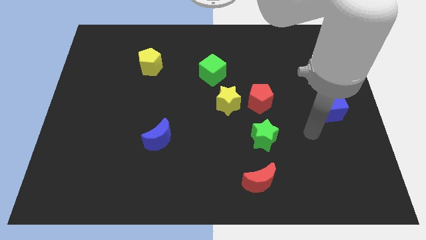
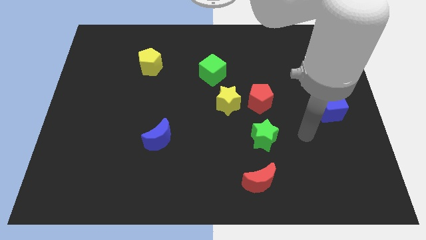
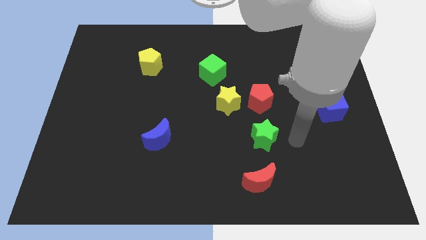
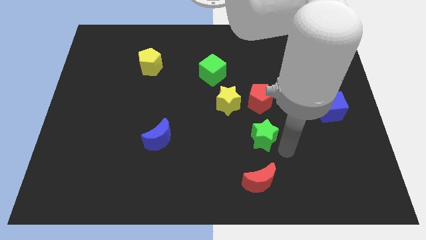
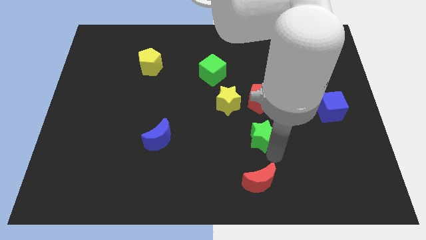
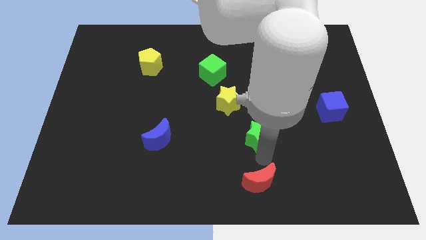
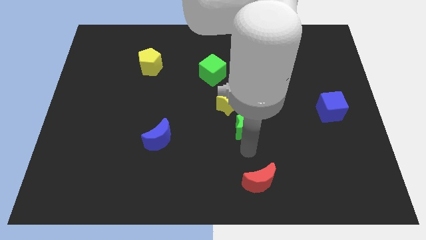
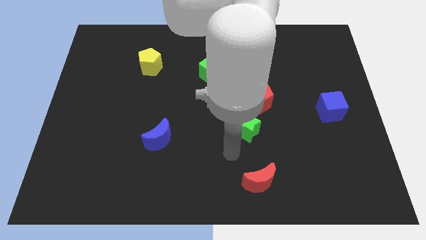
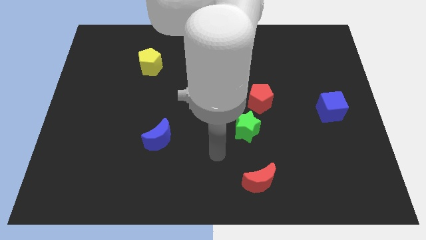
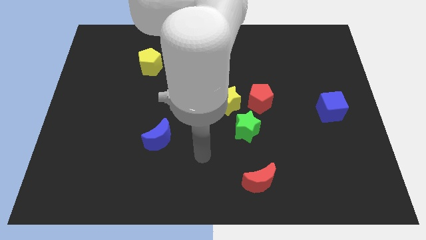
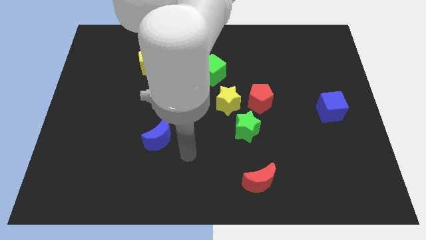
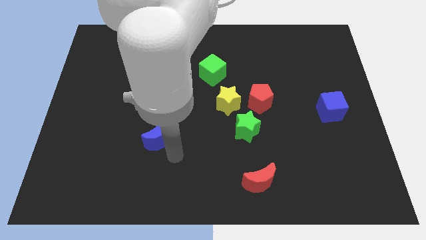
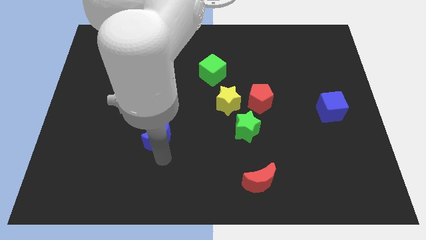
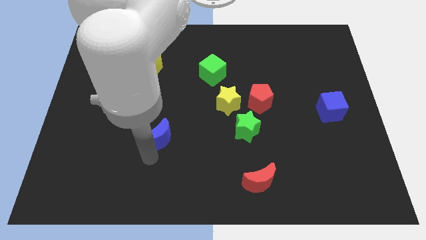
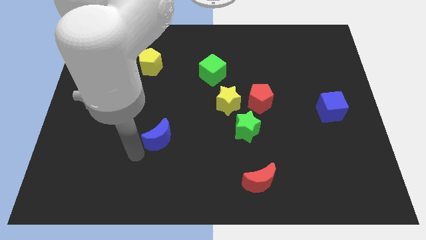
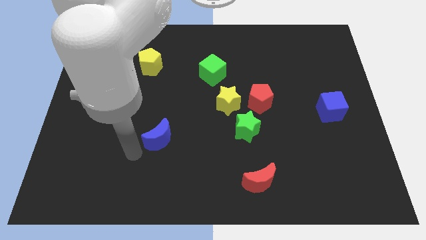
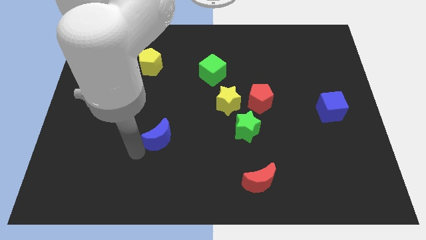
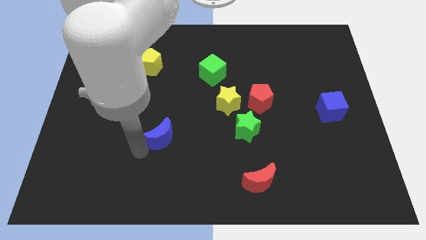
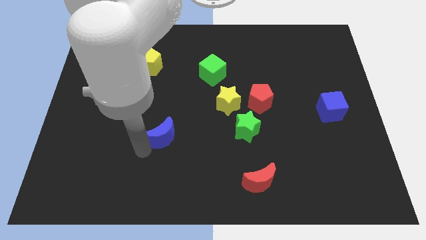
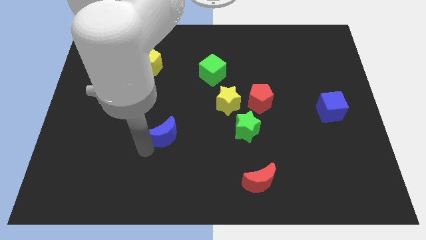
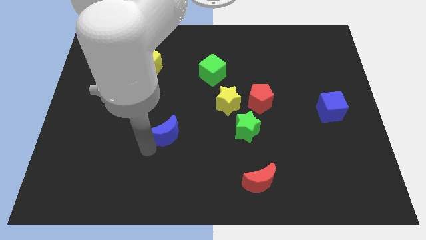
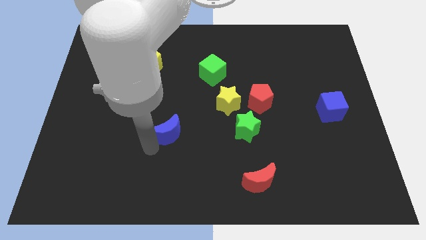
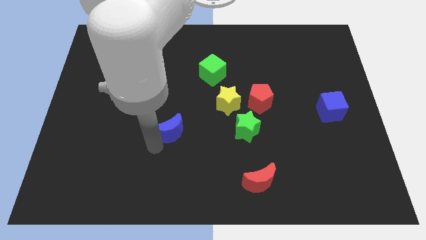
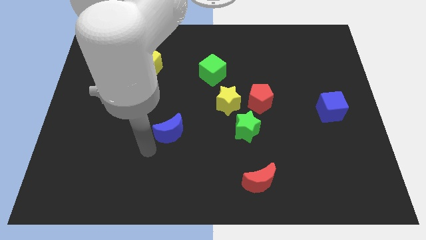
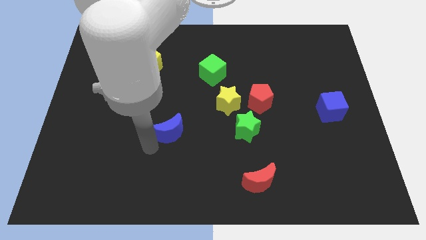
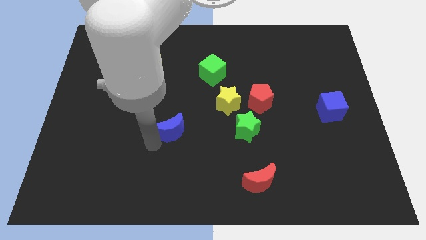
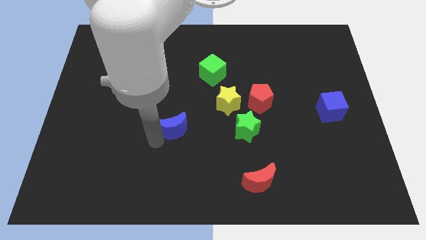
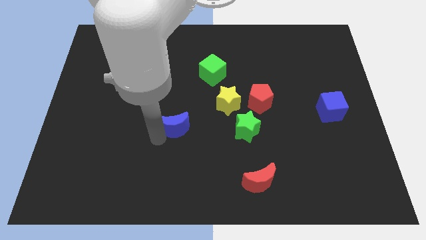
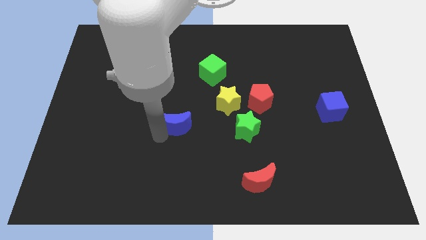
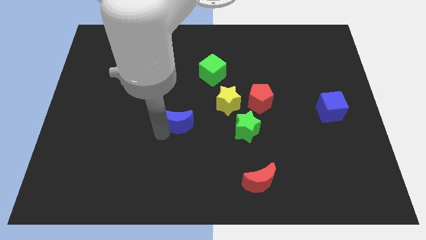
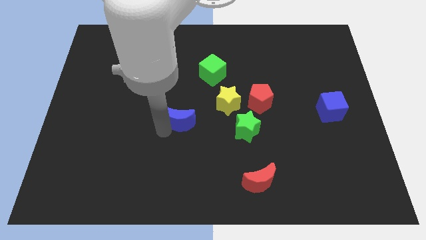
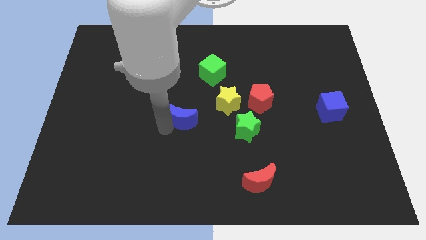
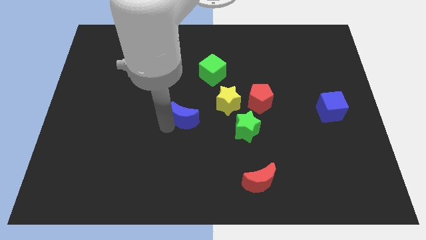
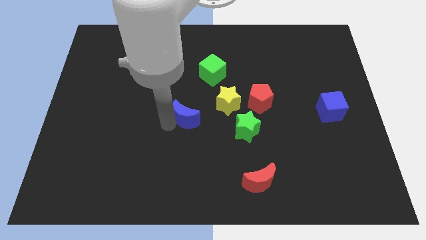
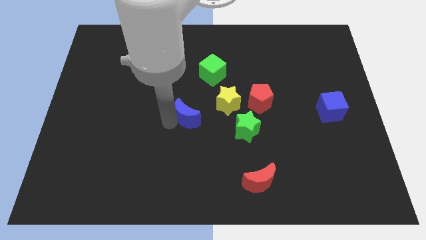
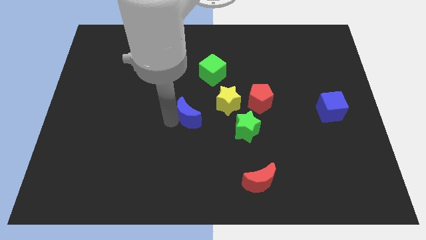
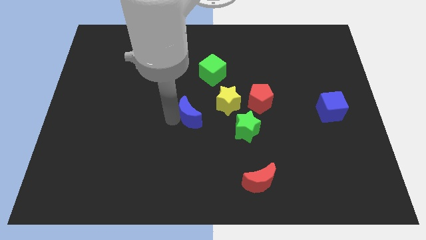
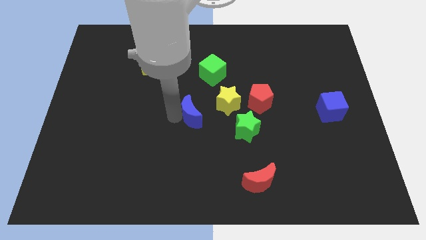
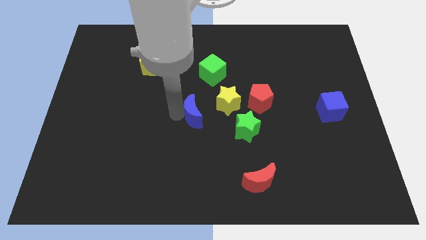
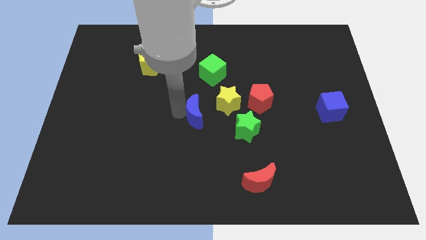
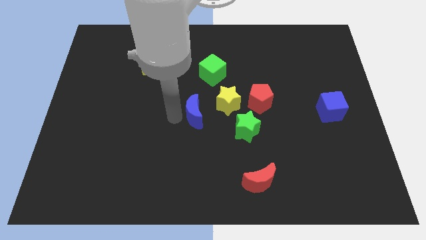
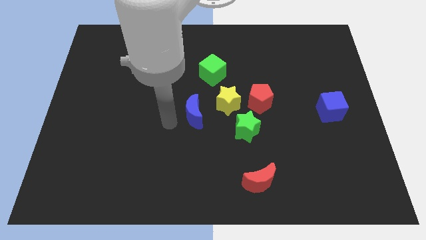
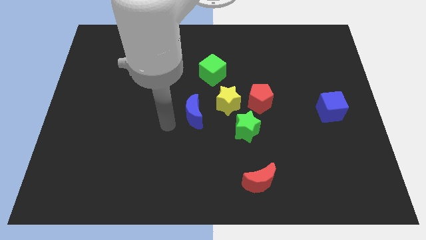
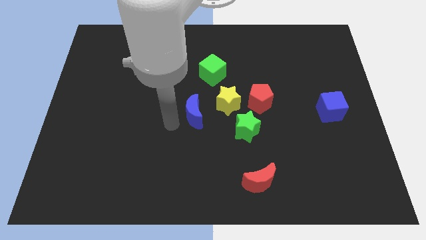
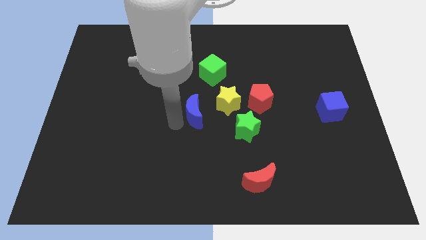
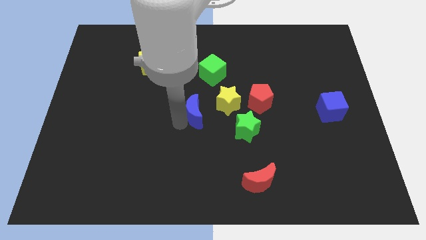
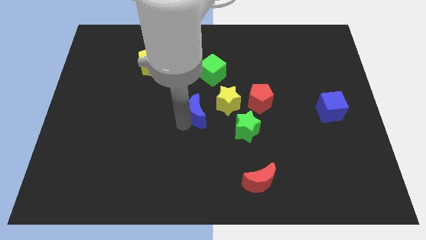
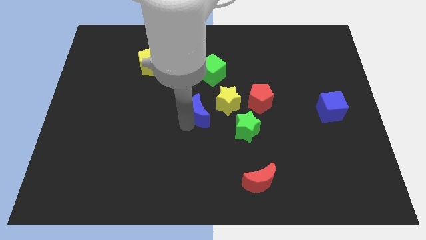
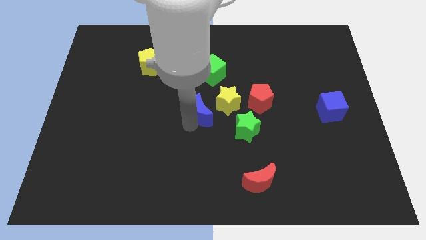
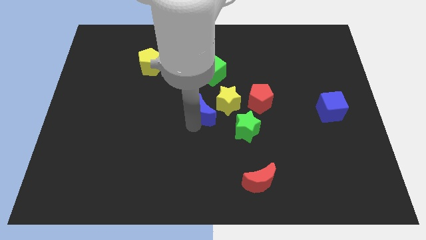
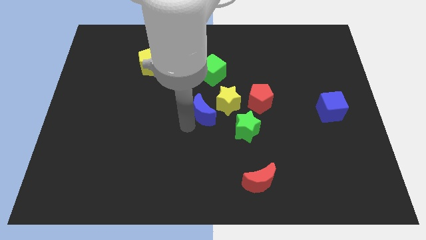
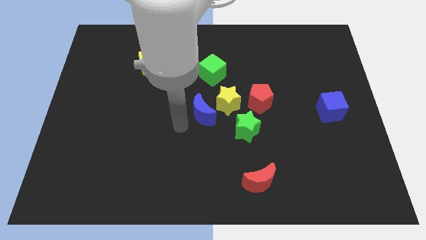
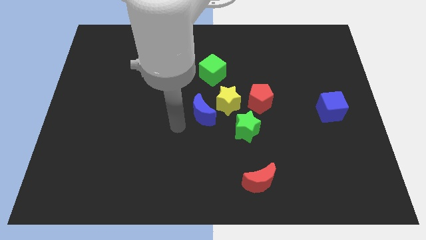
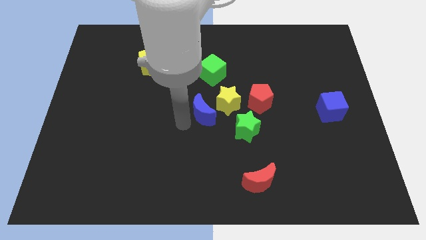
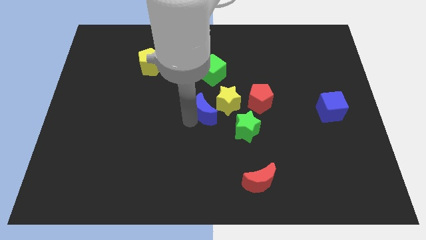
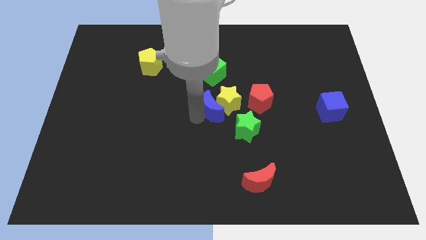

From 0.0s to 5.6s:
slide the blue moon close to the yellow star

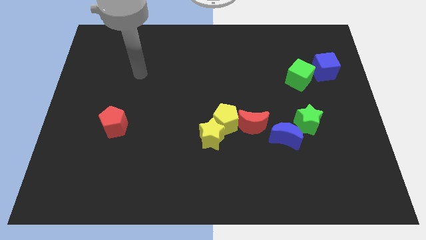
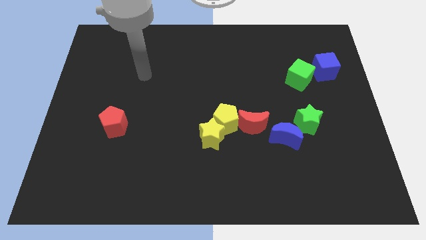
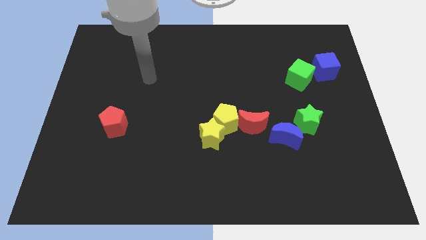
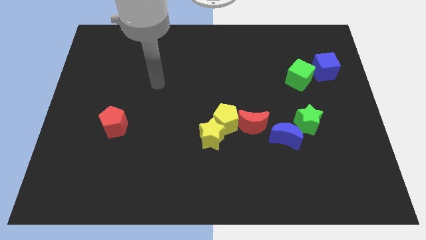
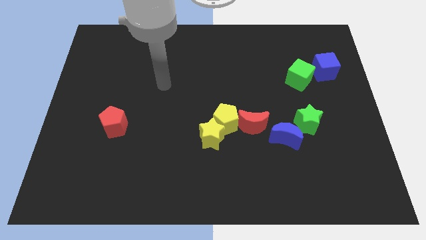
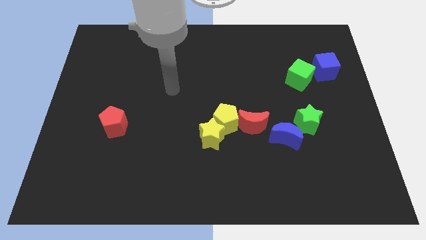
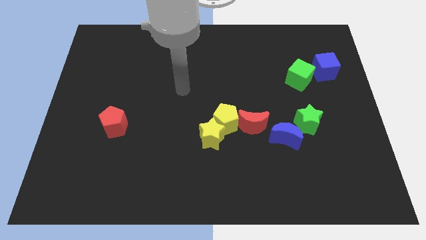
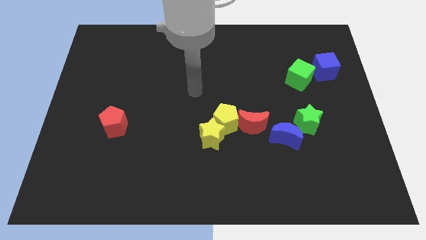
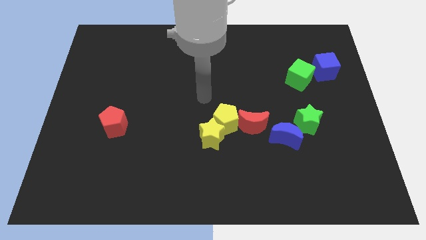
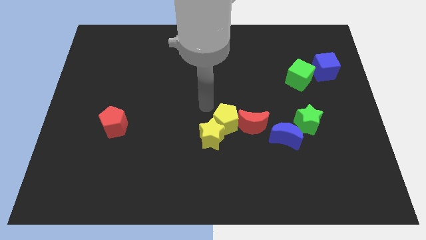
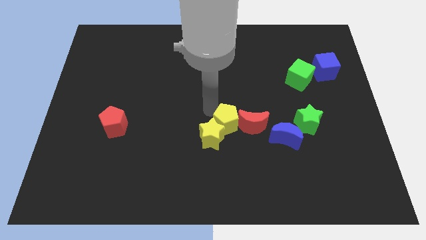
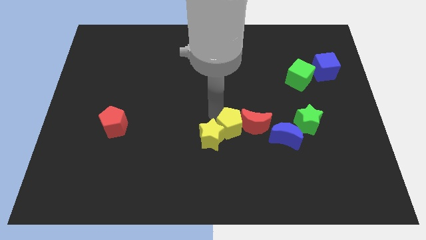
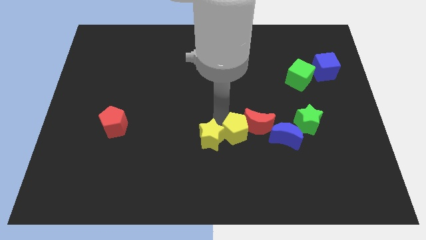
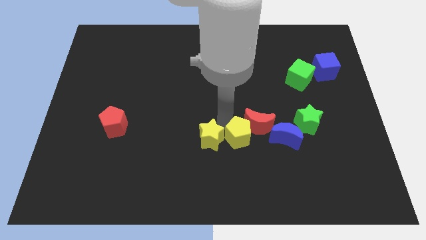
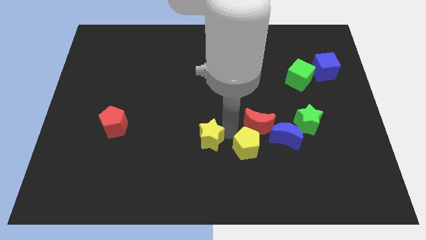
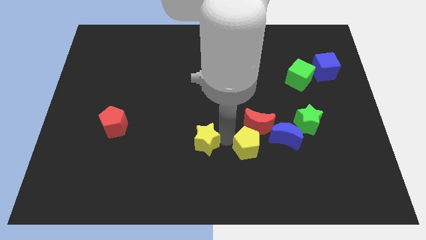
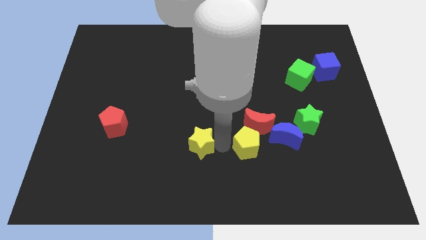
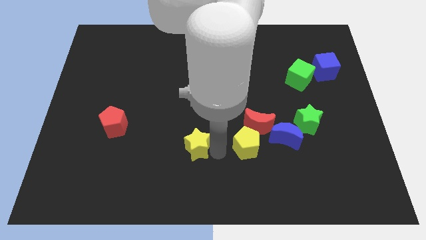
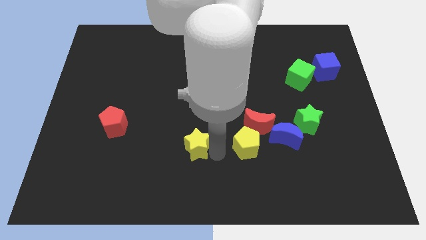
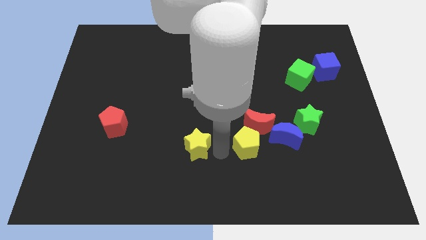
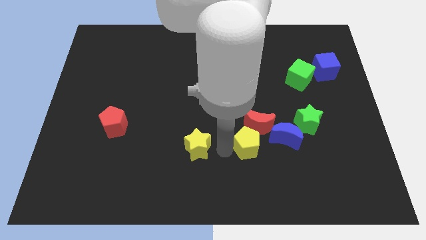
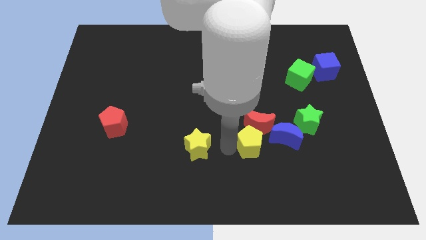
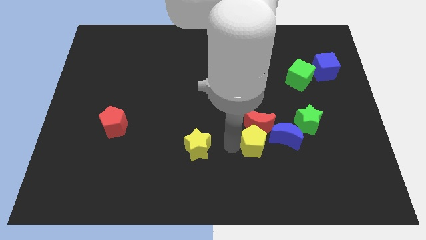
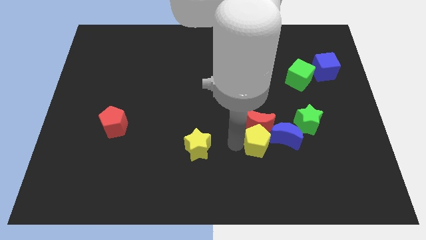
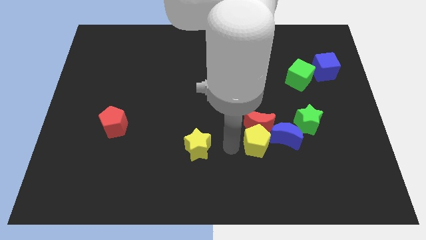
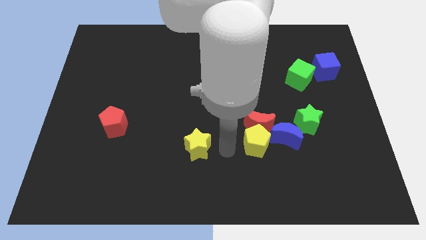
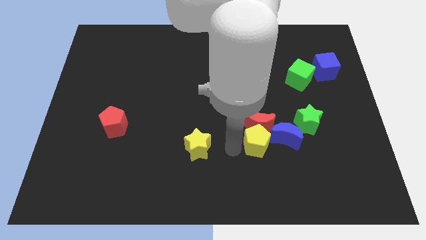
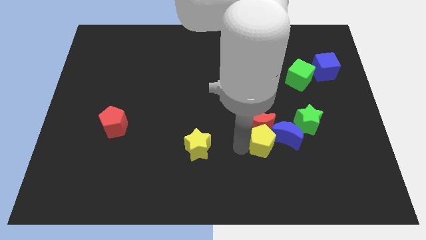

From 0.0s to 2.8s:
put the yellow pentagon next to the blue moon
